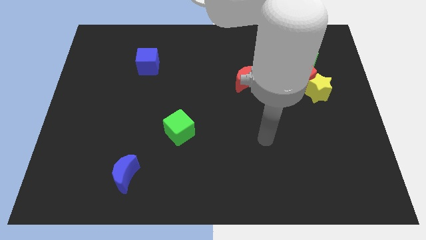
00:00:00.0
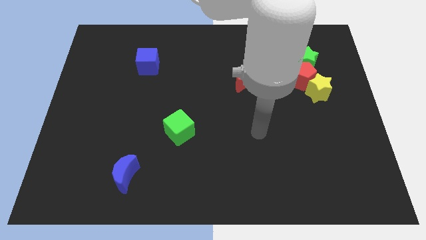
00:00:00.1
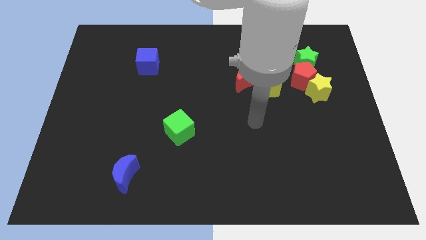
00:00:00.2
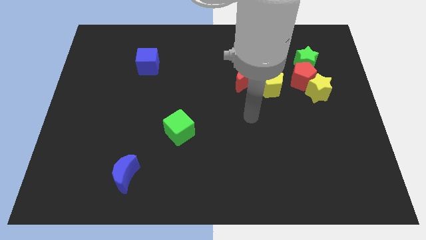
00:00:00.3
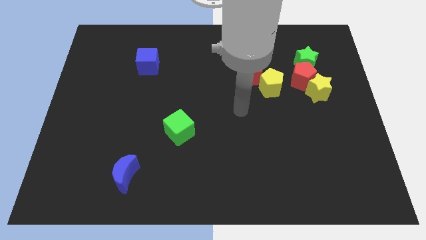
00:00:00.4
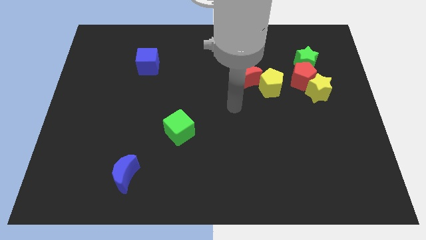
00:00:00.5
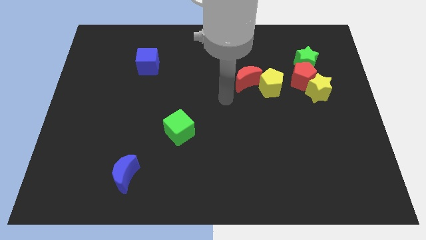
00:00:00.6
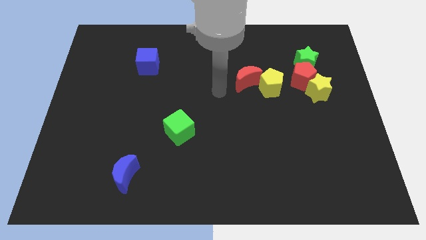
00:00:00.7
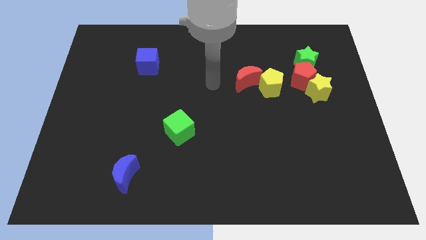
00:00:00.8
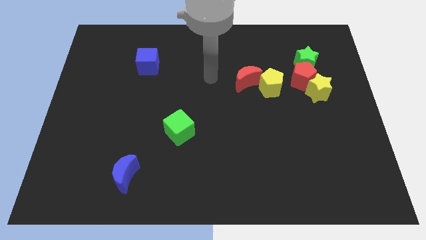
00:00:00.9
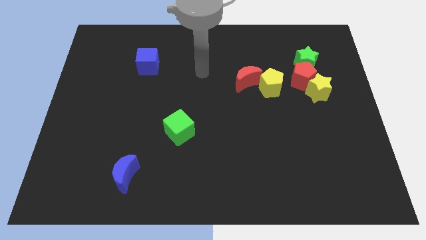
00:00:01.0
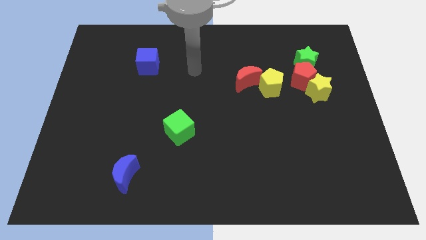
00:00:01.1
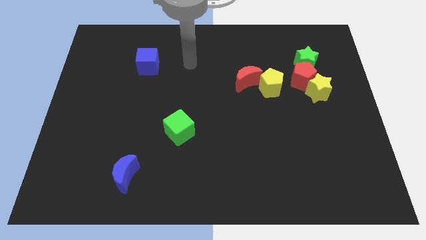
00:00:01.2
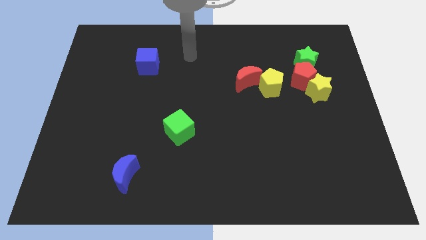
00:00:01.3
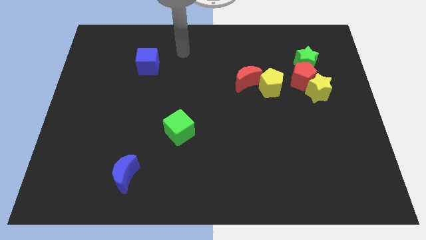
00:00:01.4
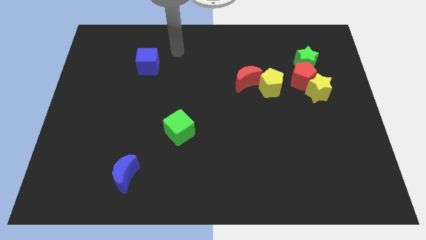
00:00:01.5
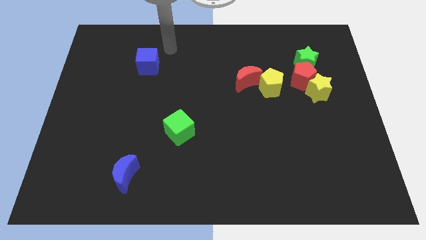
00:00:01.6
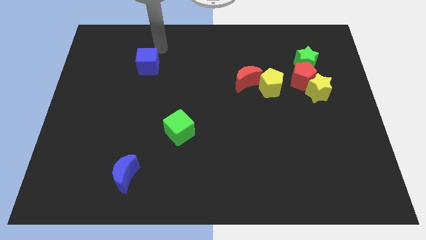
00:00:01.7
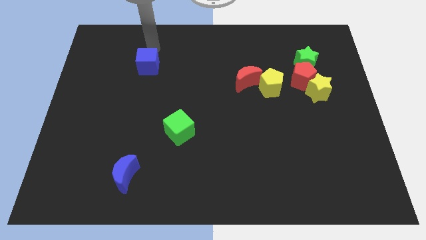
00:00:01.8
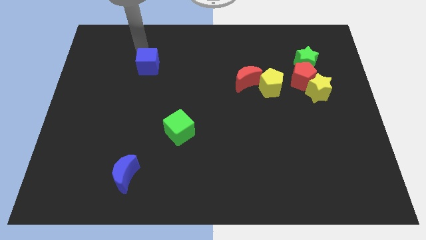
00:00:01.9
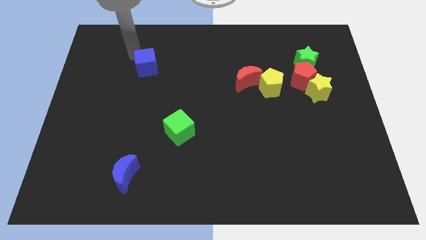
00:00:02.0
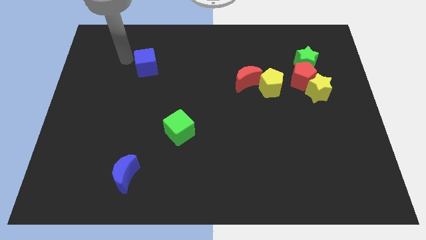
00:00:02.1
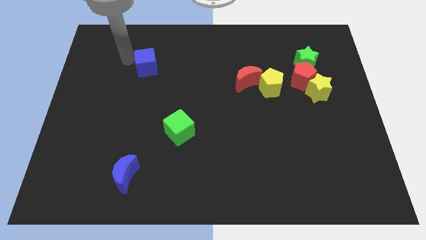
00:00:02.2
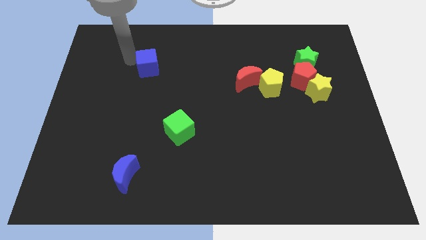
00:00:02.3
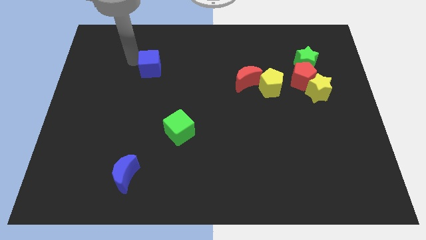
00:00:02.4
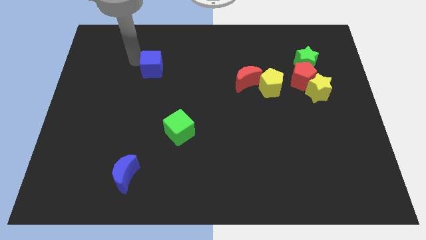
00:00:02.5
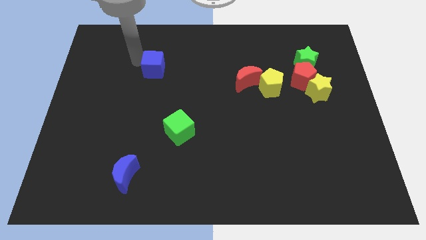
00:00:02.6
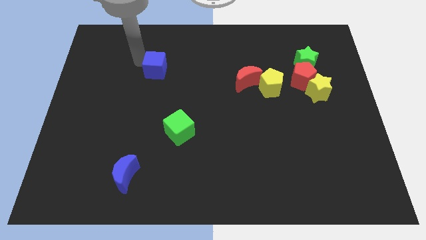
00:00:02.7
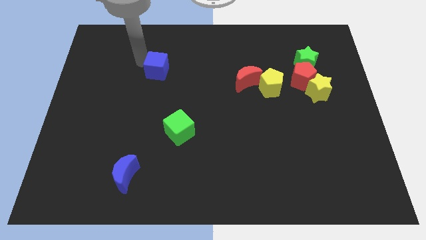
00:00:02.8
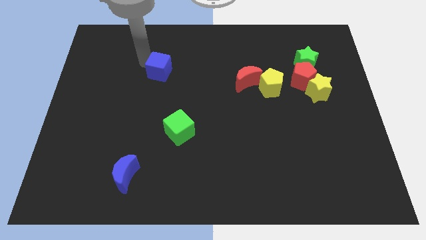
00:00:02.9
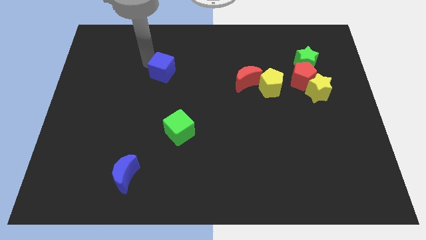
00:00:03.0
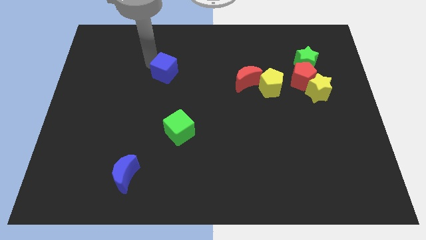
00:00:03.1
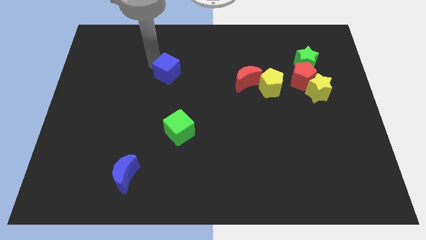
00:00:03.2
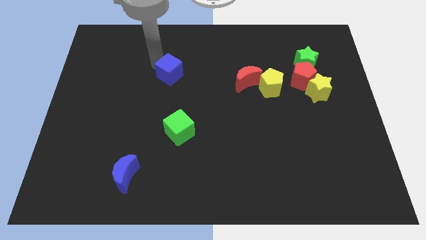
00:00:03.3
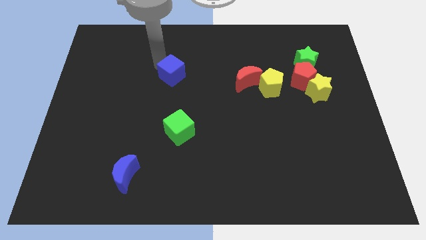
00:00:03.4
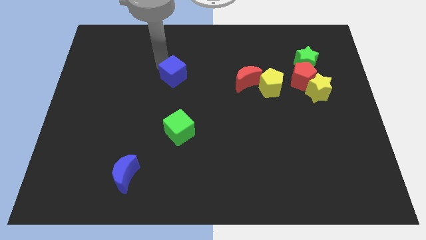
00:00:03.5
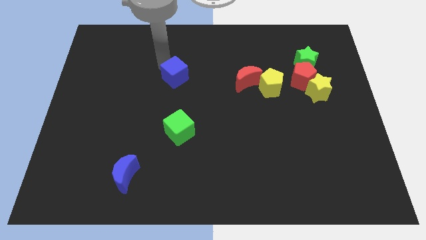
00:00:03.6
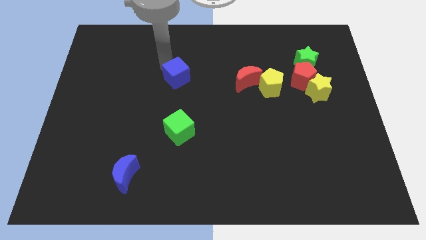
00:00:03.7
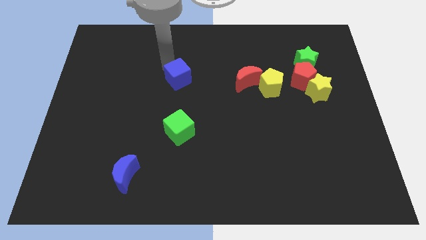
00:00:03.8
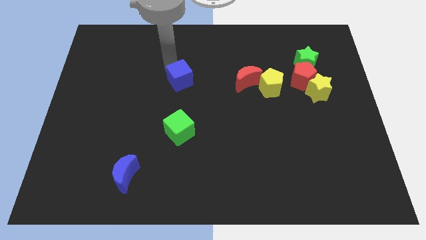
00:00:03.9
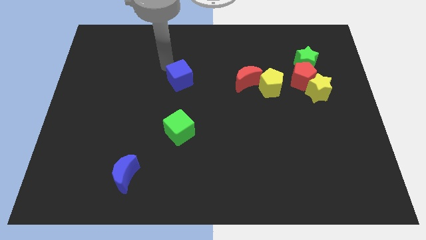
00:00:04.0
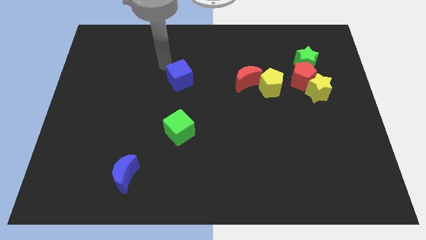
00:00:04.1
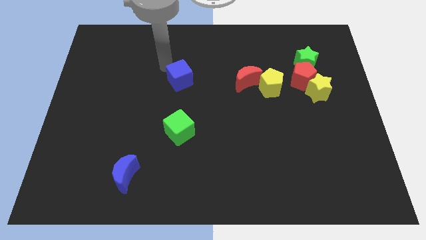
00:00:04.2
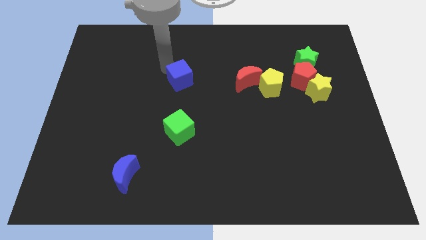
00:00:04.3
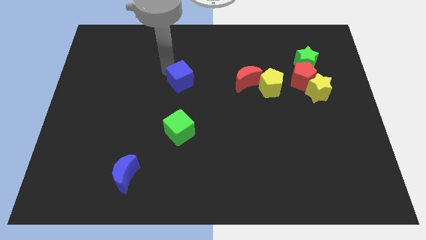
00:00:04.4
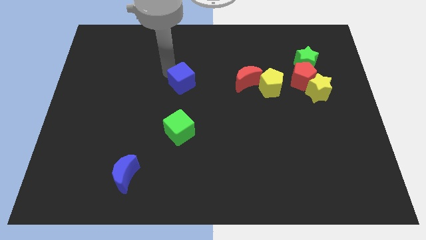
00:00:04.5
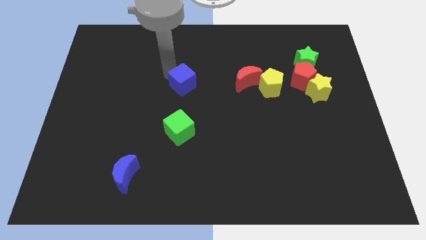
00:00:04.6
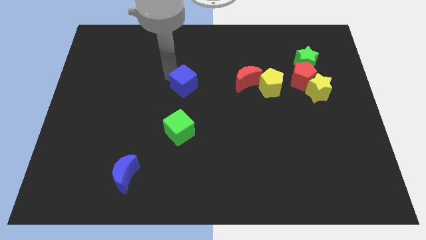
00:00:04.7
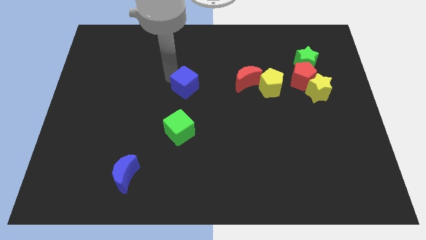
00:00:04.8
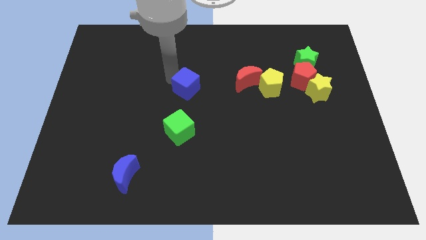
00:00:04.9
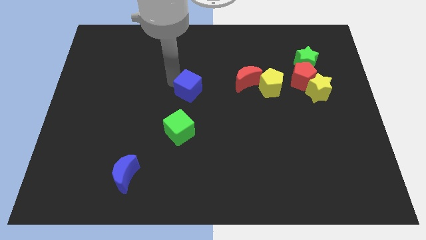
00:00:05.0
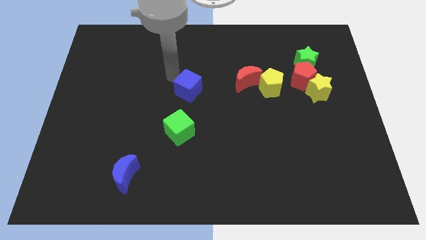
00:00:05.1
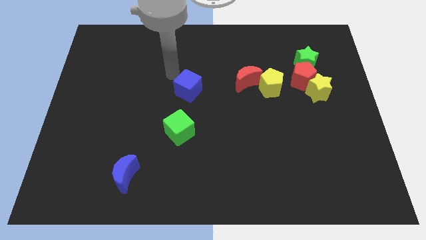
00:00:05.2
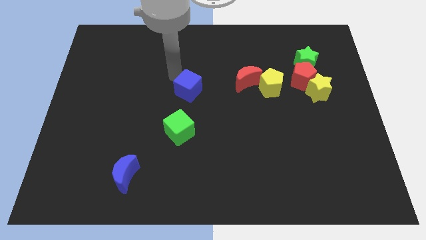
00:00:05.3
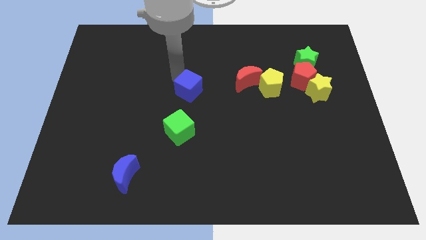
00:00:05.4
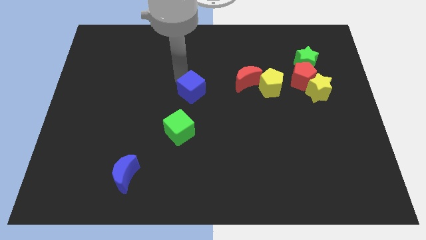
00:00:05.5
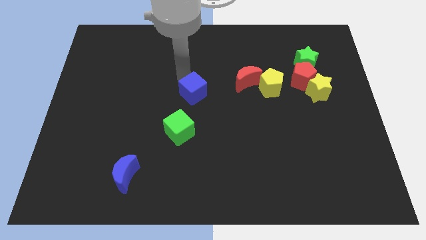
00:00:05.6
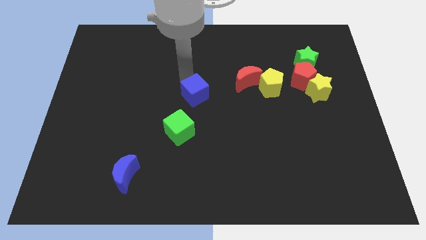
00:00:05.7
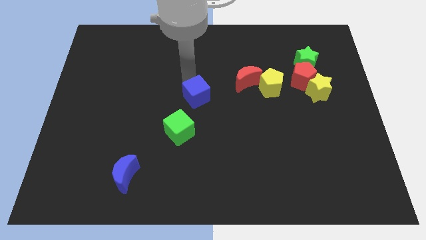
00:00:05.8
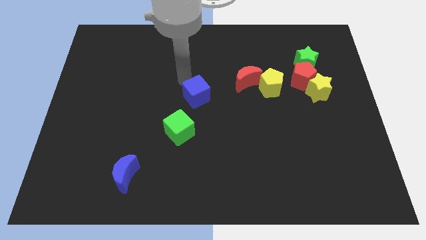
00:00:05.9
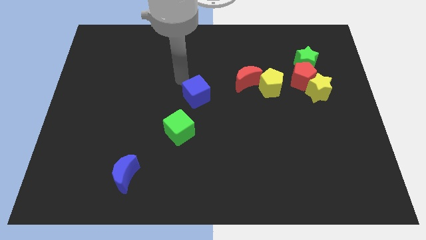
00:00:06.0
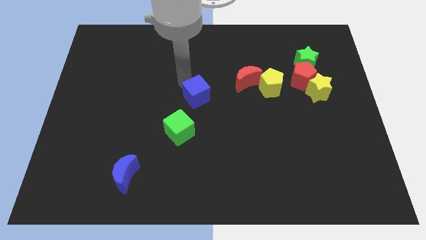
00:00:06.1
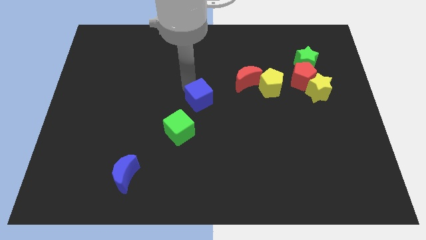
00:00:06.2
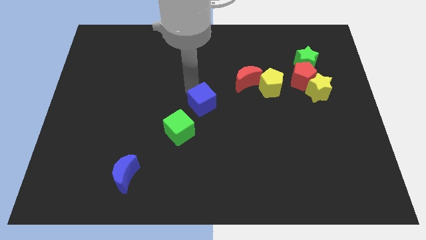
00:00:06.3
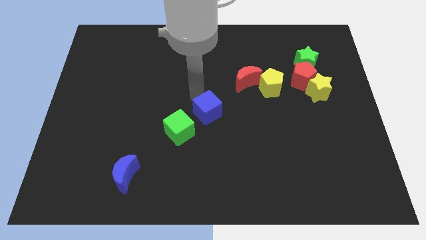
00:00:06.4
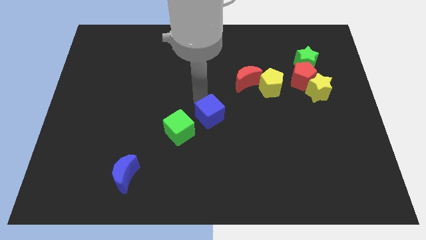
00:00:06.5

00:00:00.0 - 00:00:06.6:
push the blue cube just right of the green cube

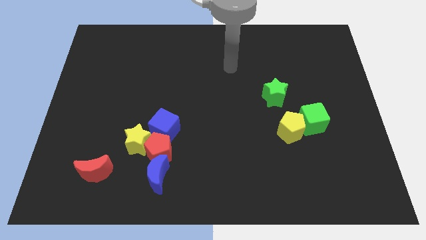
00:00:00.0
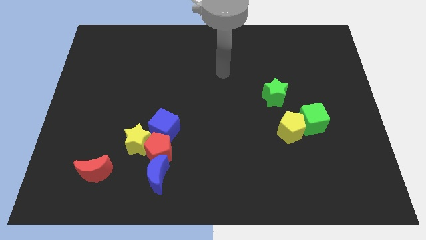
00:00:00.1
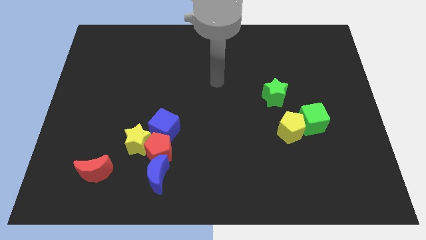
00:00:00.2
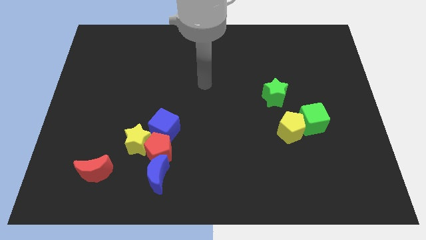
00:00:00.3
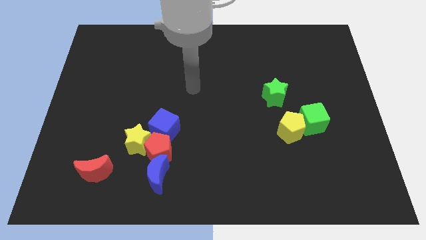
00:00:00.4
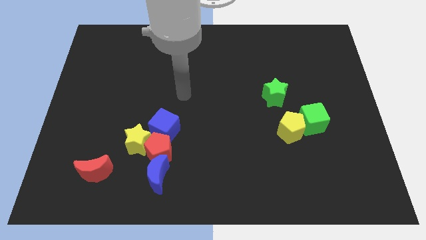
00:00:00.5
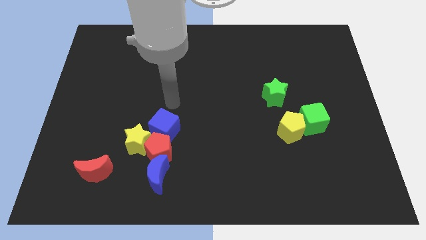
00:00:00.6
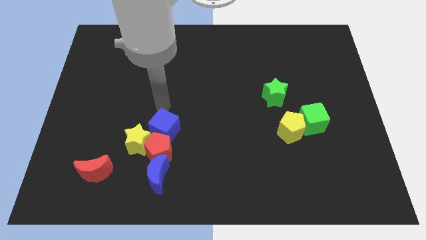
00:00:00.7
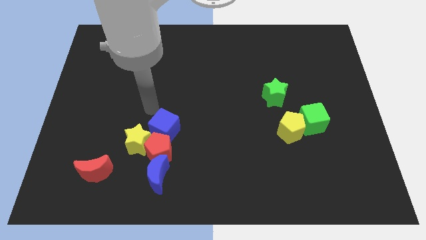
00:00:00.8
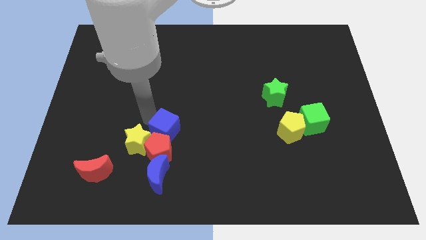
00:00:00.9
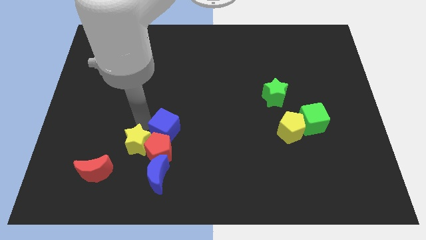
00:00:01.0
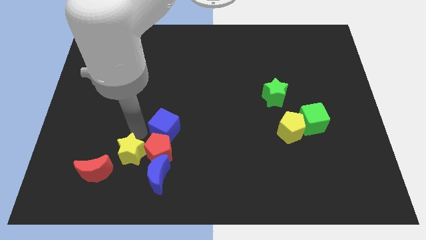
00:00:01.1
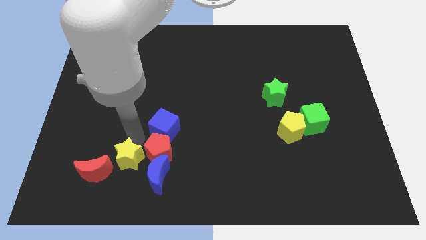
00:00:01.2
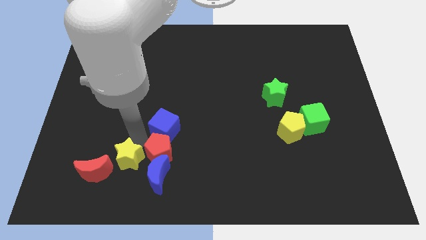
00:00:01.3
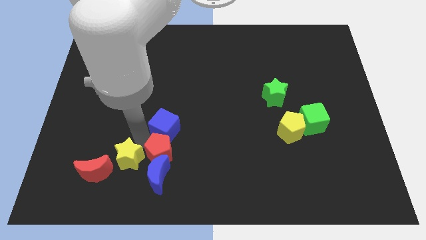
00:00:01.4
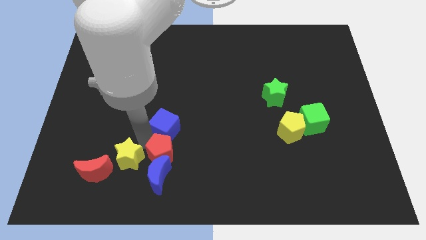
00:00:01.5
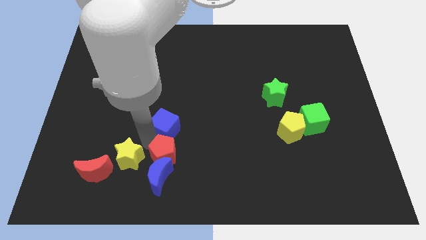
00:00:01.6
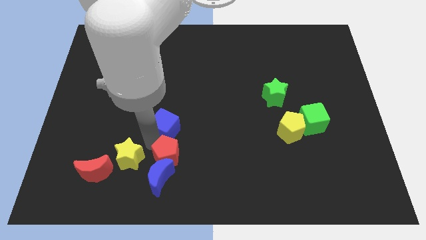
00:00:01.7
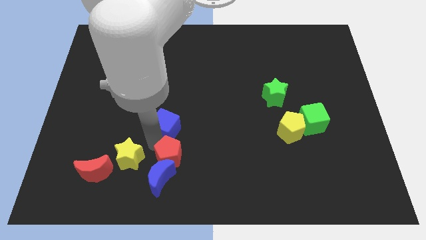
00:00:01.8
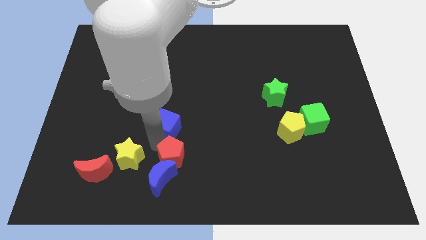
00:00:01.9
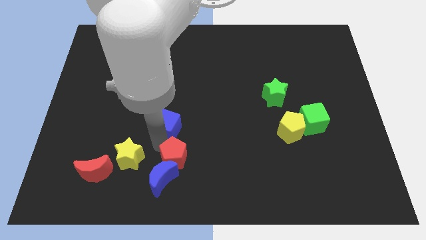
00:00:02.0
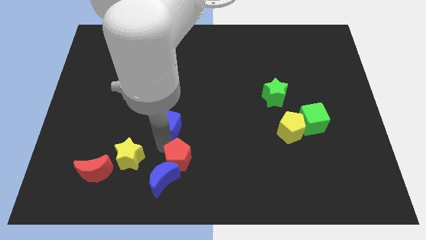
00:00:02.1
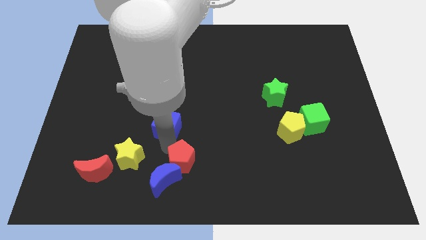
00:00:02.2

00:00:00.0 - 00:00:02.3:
put the red pentagon right of the blue moon
